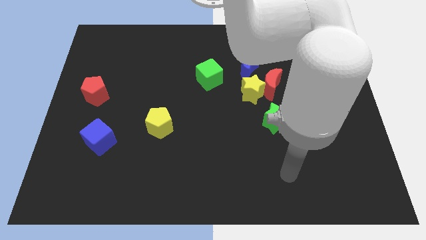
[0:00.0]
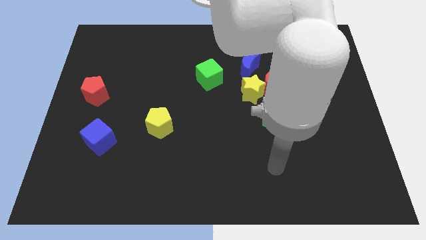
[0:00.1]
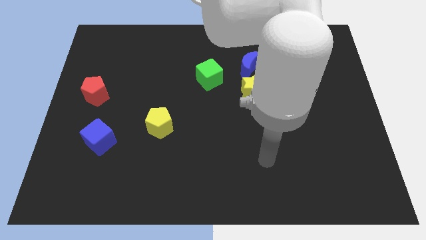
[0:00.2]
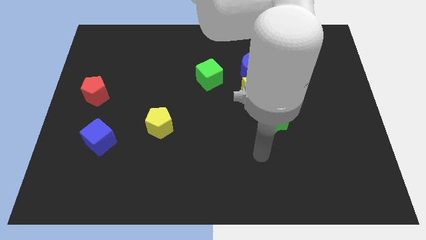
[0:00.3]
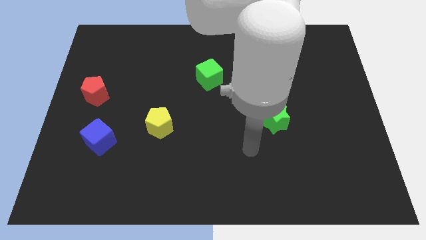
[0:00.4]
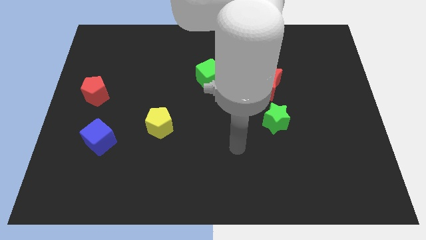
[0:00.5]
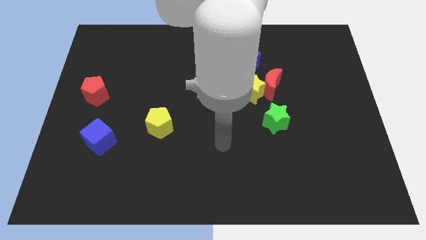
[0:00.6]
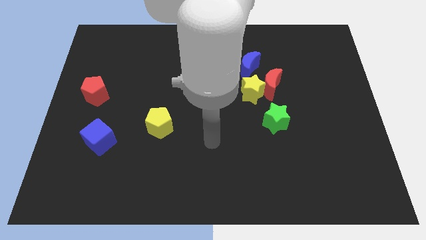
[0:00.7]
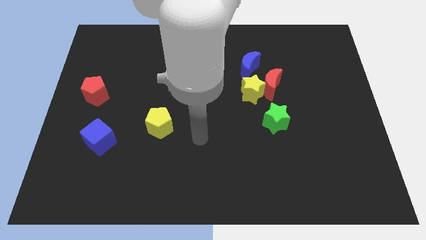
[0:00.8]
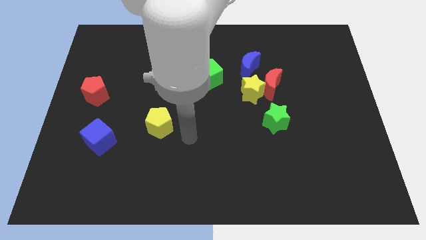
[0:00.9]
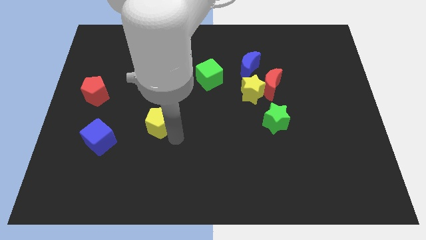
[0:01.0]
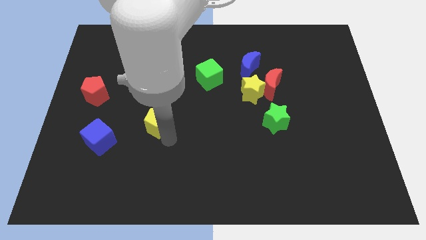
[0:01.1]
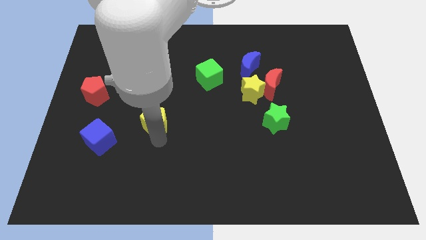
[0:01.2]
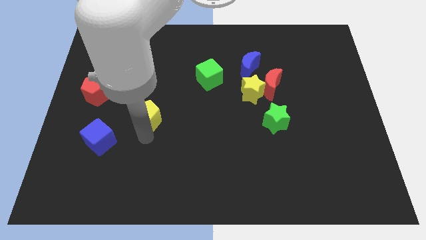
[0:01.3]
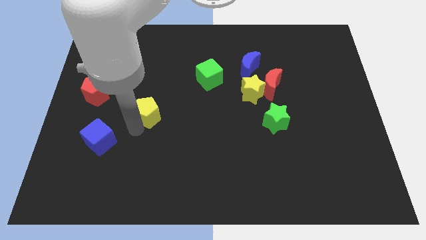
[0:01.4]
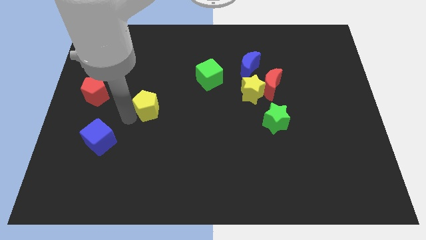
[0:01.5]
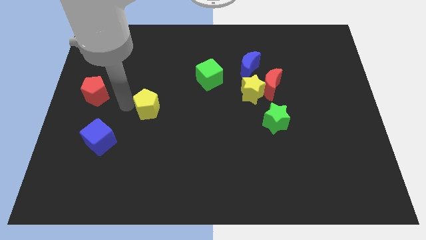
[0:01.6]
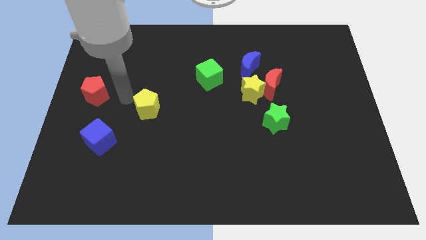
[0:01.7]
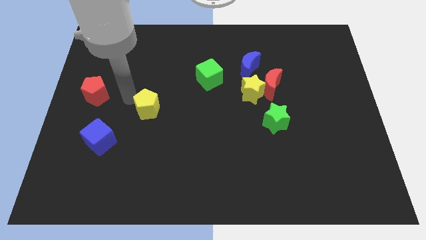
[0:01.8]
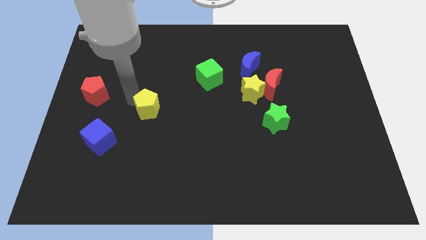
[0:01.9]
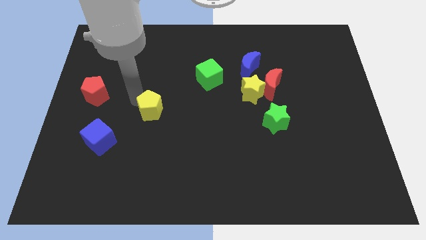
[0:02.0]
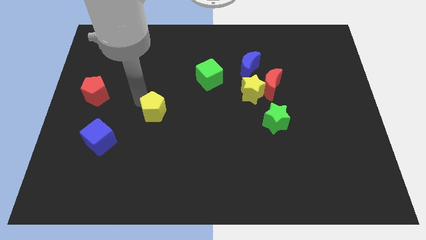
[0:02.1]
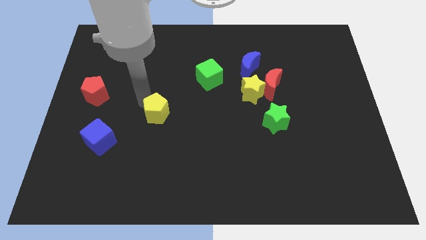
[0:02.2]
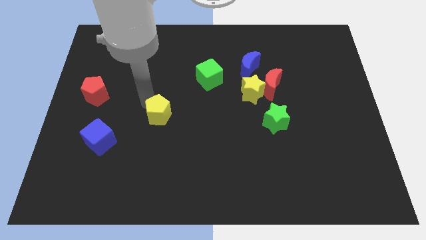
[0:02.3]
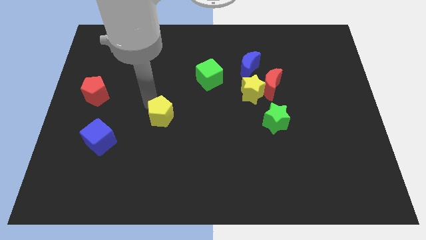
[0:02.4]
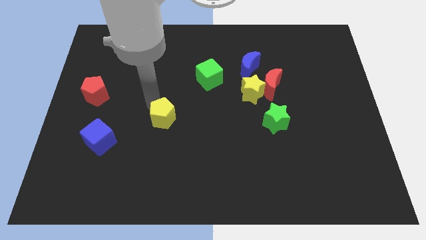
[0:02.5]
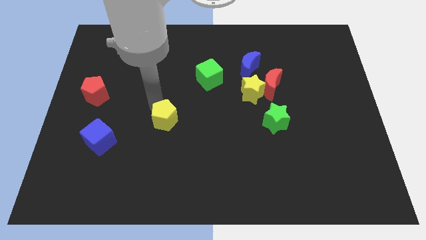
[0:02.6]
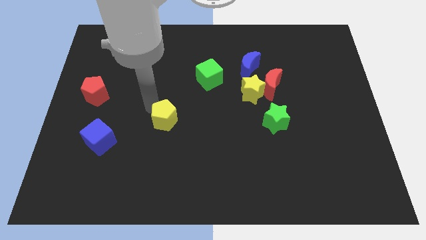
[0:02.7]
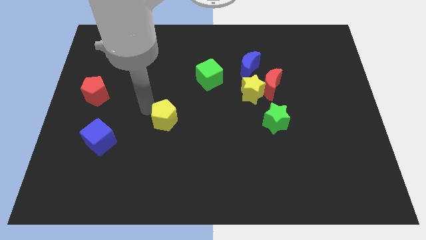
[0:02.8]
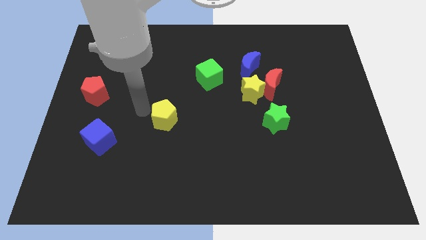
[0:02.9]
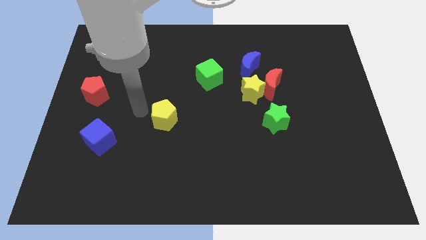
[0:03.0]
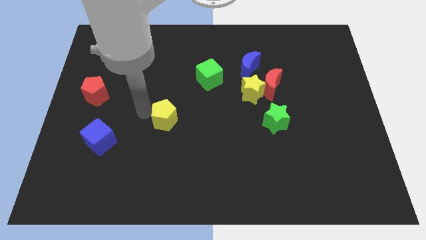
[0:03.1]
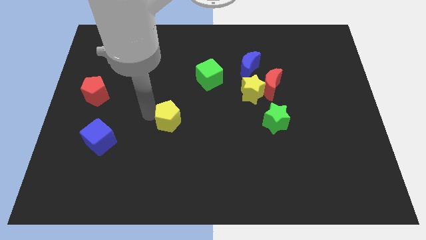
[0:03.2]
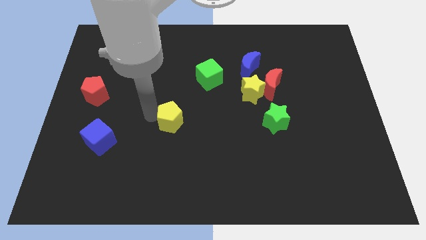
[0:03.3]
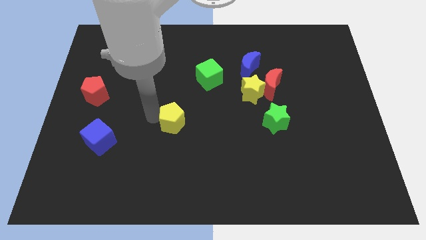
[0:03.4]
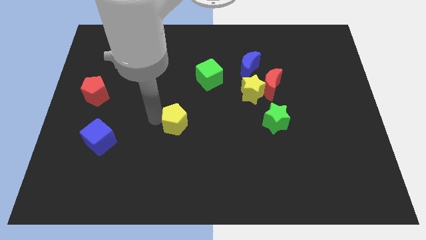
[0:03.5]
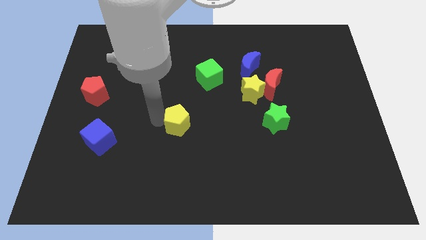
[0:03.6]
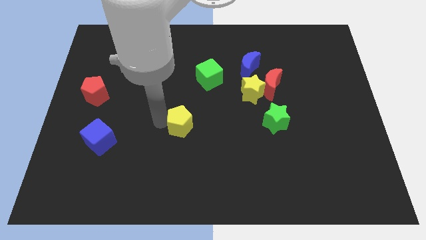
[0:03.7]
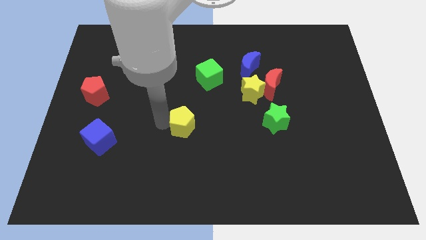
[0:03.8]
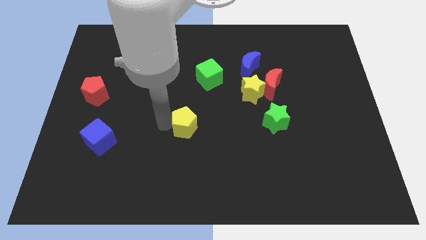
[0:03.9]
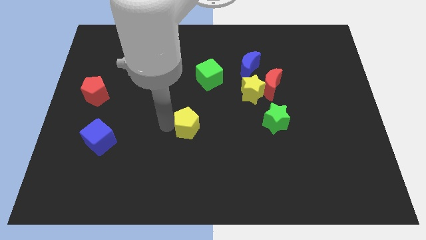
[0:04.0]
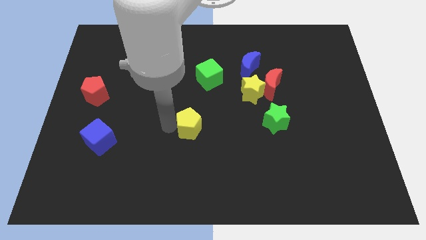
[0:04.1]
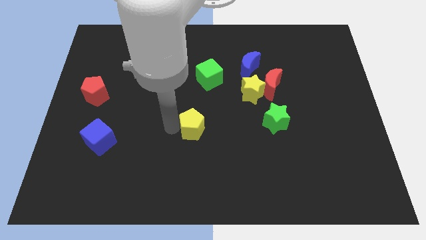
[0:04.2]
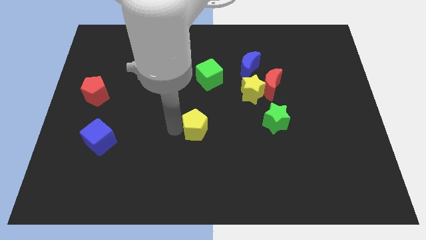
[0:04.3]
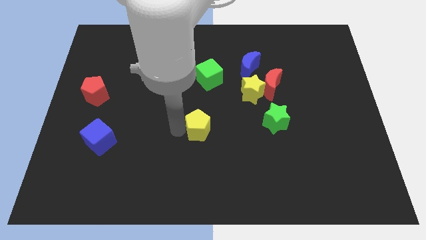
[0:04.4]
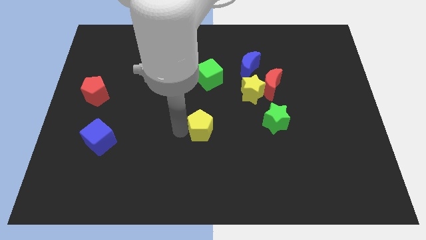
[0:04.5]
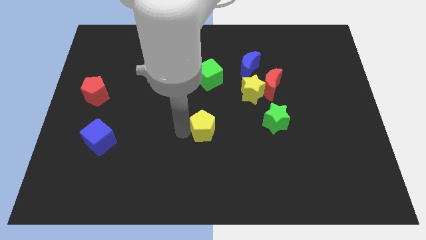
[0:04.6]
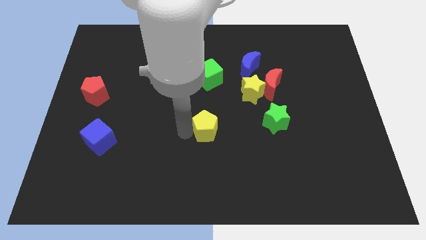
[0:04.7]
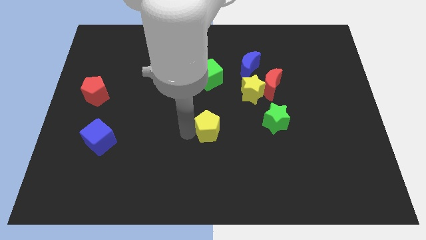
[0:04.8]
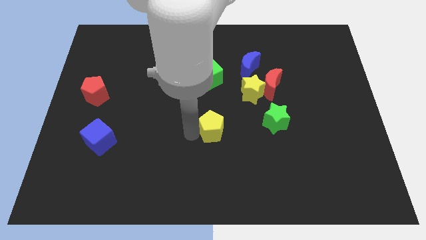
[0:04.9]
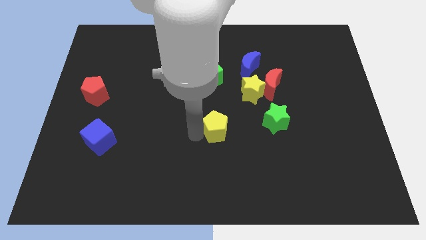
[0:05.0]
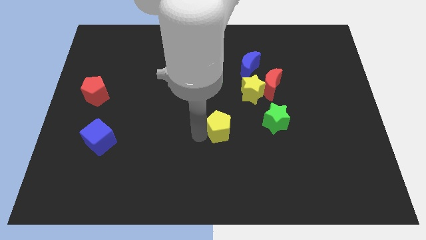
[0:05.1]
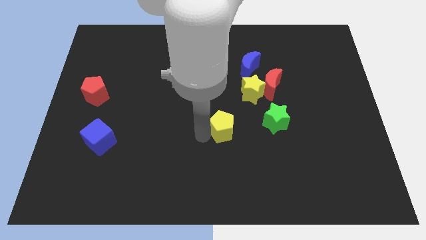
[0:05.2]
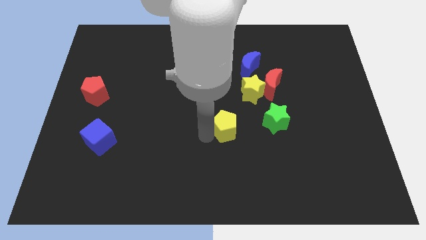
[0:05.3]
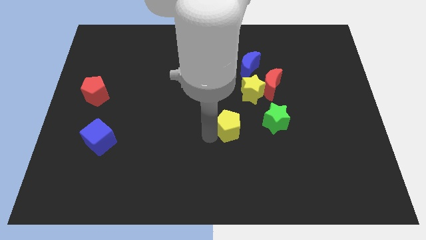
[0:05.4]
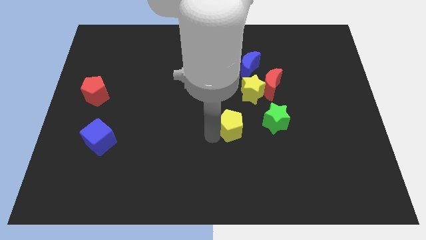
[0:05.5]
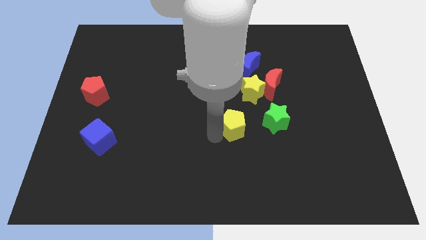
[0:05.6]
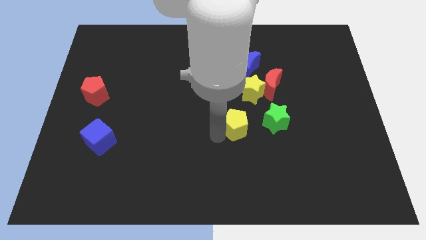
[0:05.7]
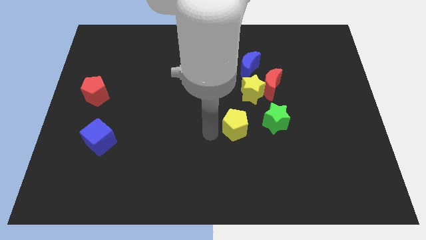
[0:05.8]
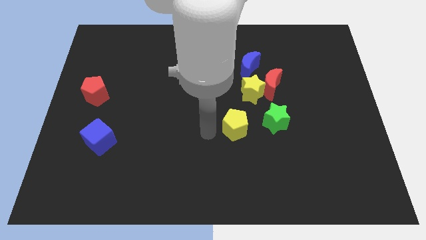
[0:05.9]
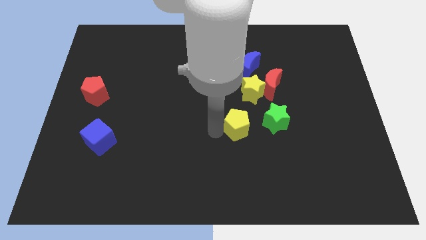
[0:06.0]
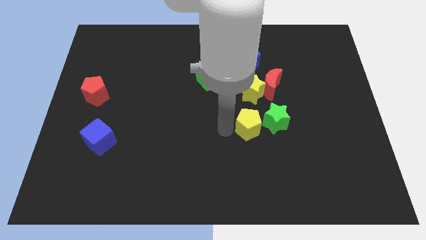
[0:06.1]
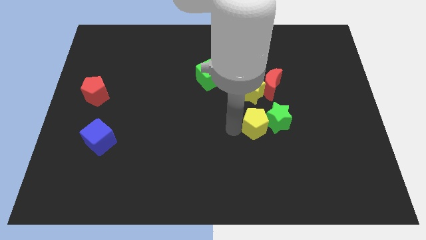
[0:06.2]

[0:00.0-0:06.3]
put the yellow pentagon next to the green star

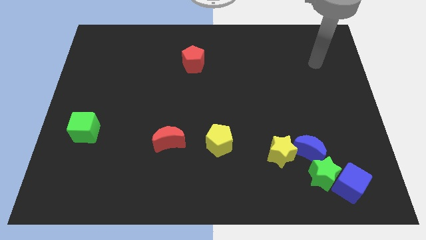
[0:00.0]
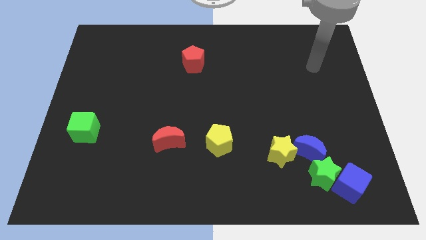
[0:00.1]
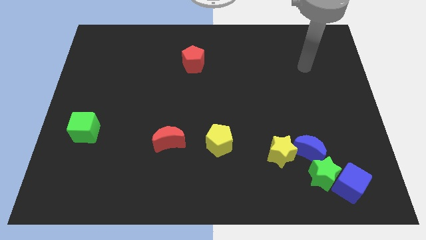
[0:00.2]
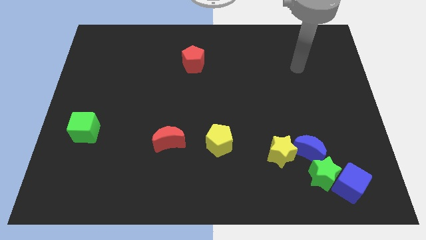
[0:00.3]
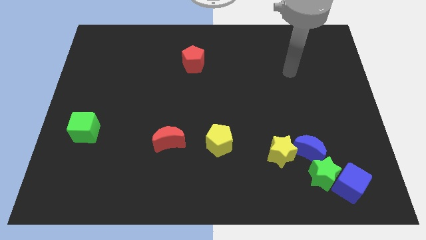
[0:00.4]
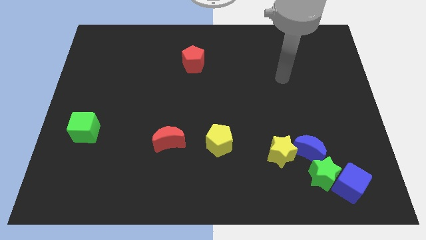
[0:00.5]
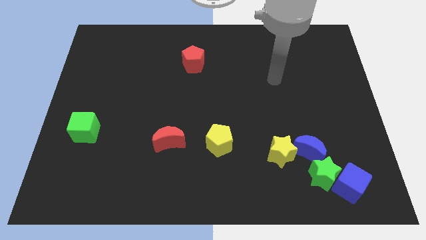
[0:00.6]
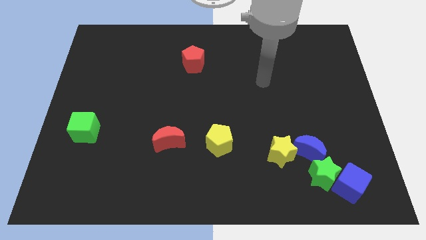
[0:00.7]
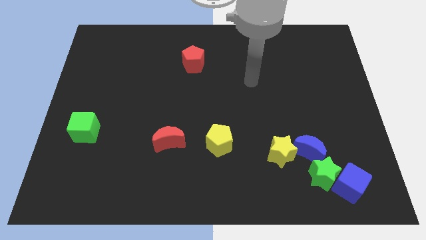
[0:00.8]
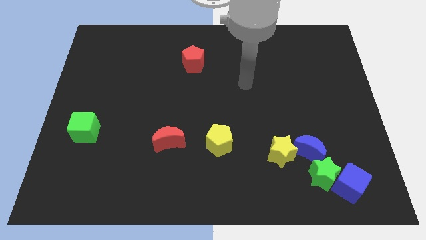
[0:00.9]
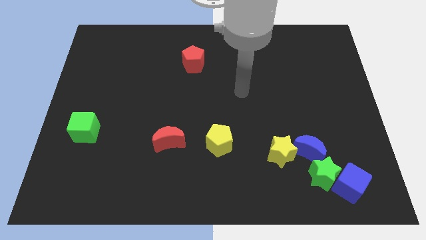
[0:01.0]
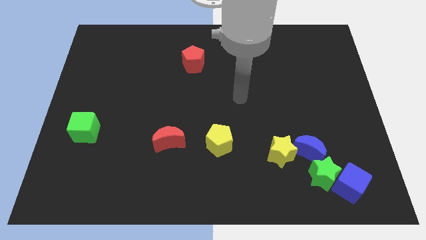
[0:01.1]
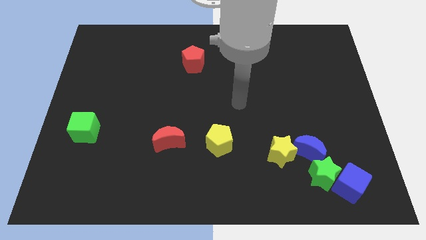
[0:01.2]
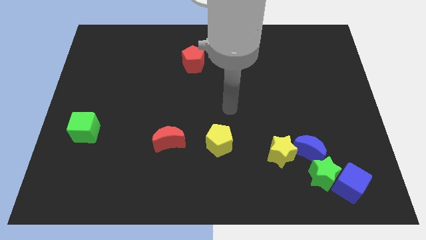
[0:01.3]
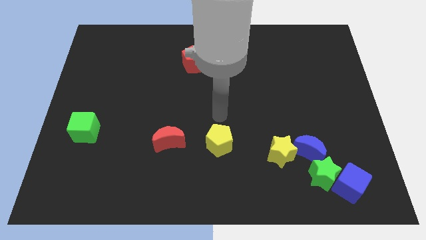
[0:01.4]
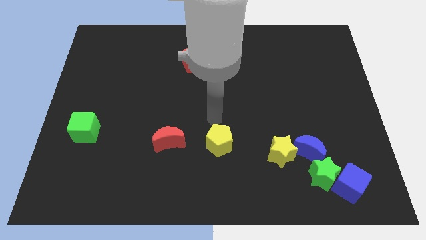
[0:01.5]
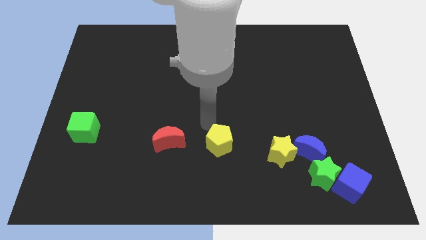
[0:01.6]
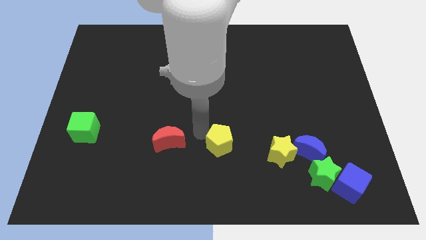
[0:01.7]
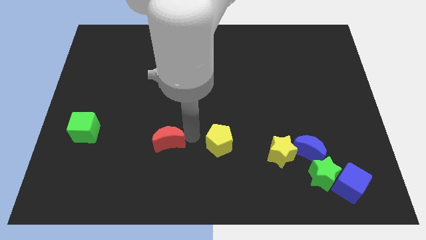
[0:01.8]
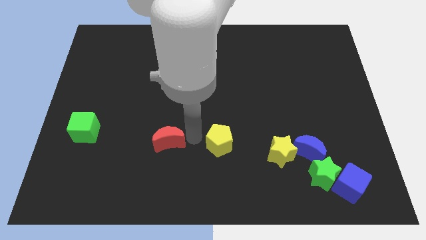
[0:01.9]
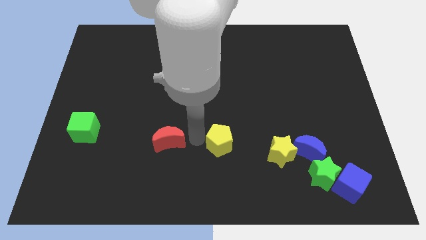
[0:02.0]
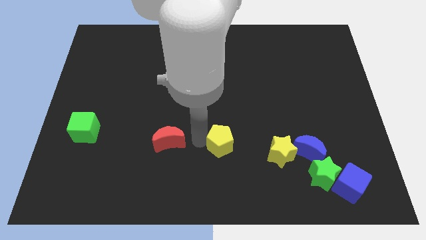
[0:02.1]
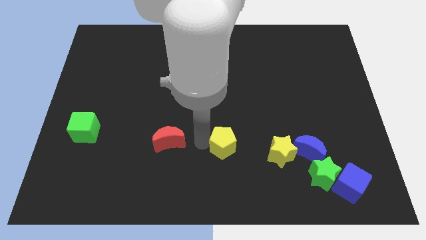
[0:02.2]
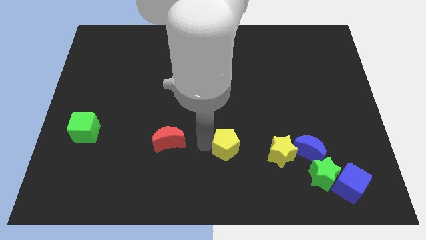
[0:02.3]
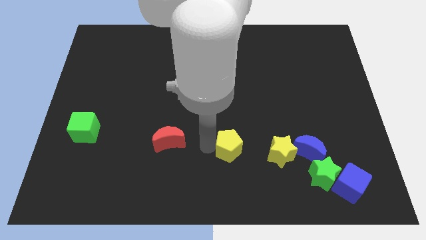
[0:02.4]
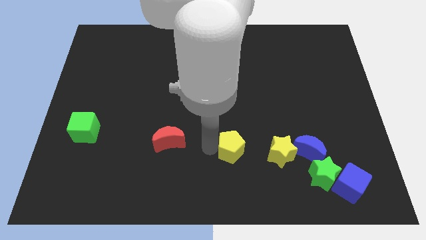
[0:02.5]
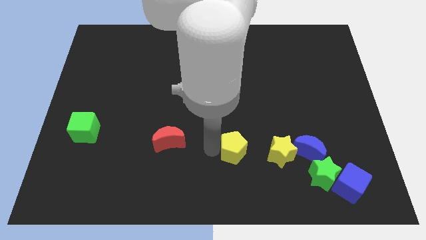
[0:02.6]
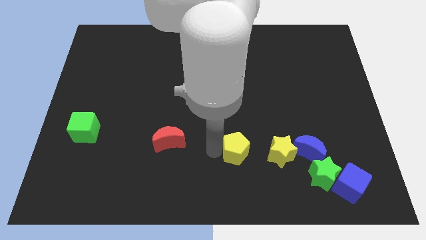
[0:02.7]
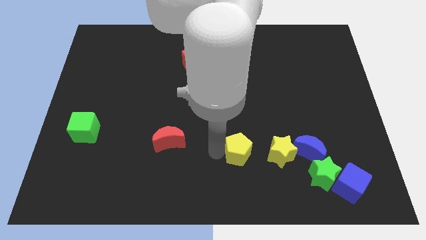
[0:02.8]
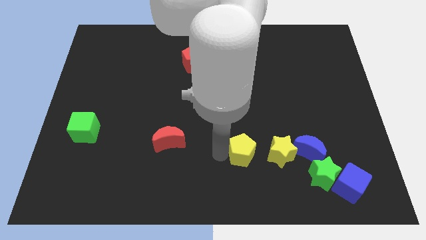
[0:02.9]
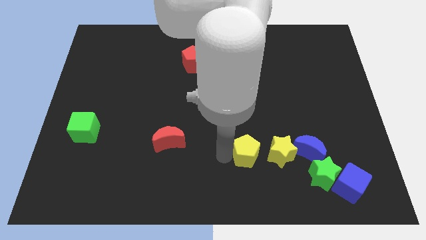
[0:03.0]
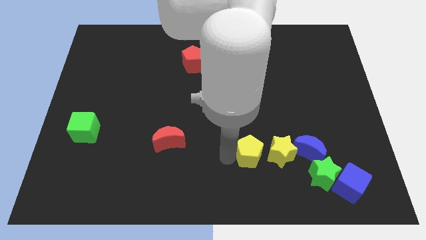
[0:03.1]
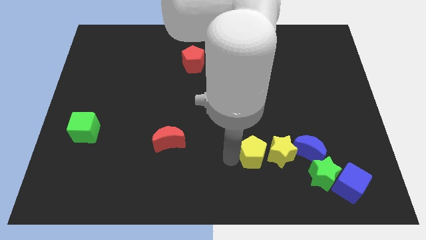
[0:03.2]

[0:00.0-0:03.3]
put the yellow pentagon next to the yellow star
